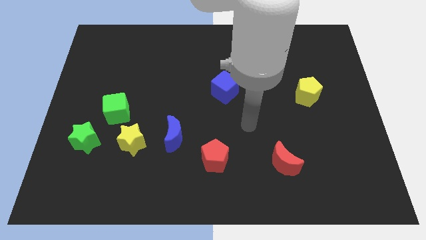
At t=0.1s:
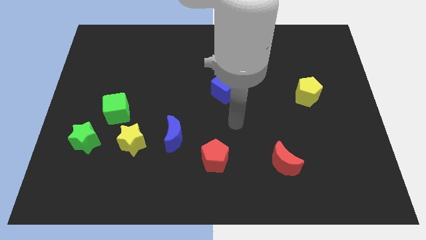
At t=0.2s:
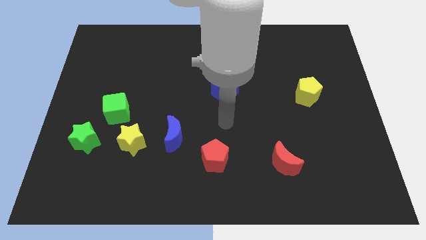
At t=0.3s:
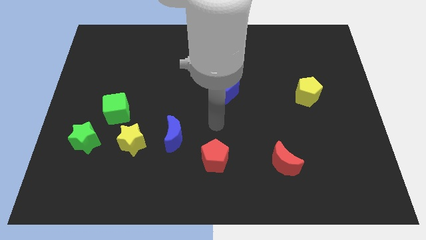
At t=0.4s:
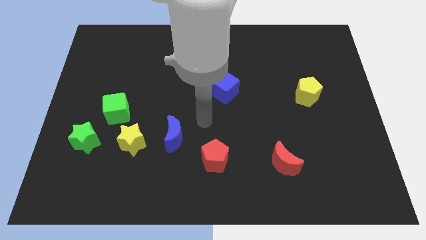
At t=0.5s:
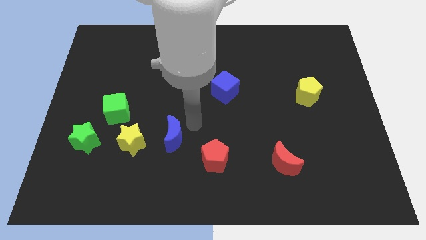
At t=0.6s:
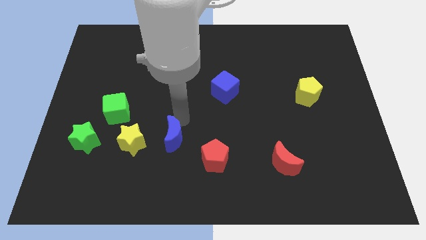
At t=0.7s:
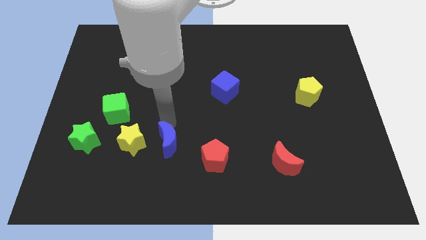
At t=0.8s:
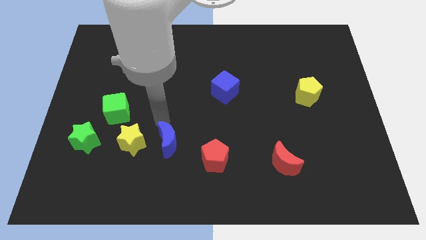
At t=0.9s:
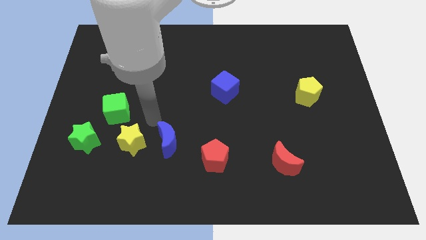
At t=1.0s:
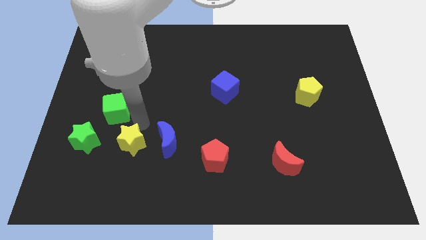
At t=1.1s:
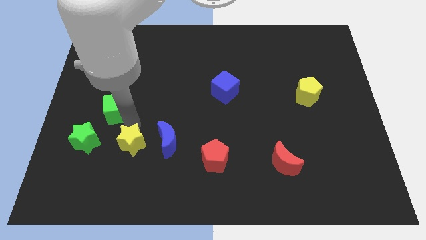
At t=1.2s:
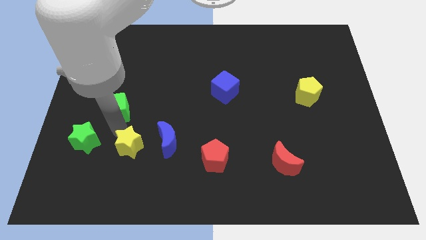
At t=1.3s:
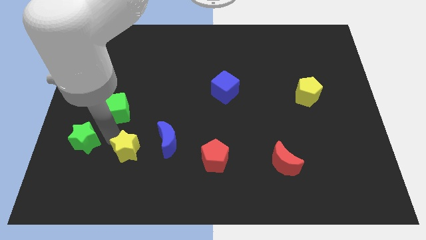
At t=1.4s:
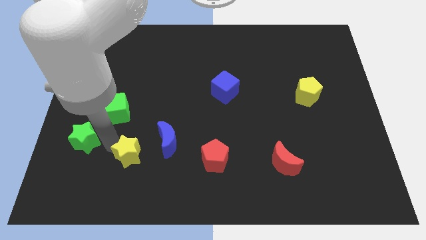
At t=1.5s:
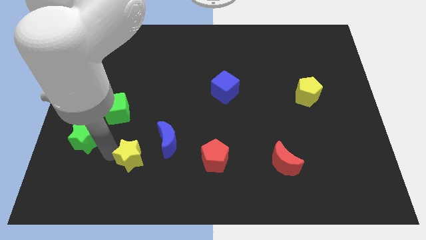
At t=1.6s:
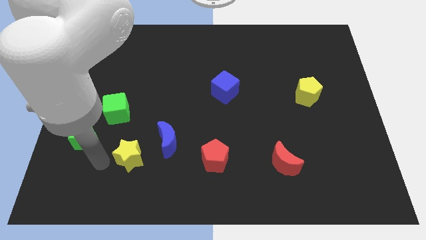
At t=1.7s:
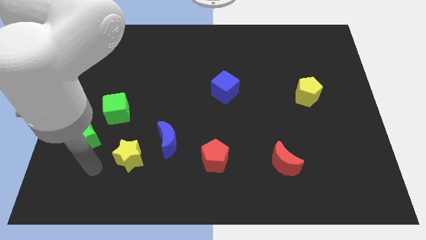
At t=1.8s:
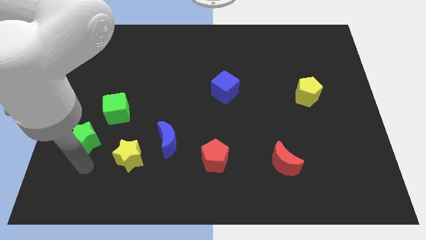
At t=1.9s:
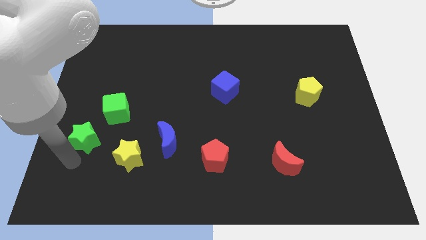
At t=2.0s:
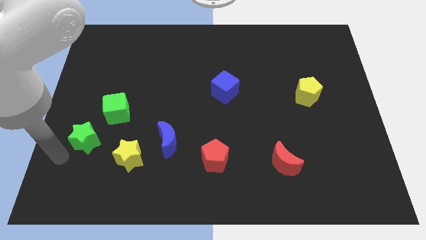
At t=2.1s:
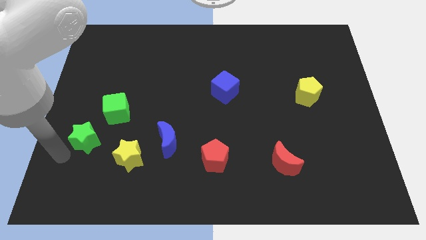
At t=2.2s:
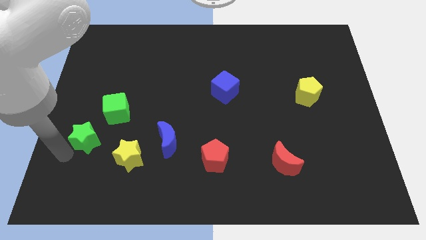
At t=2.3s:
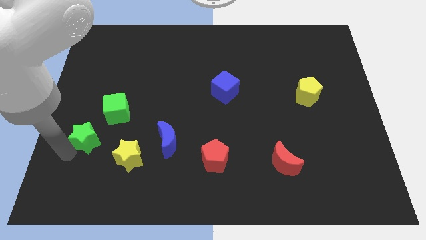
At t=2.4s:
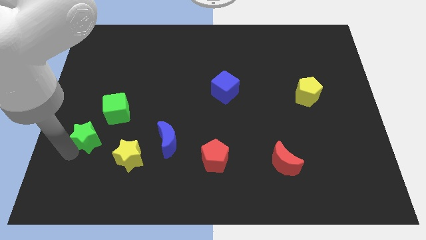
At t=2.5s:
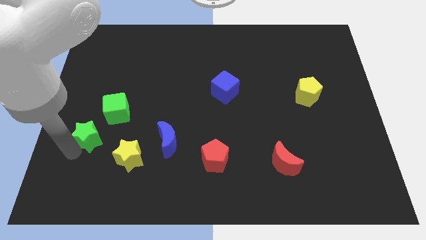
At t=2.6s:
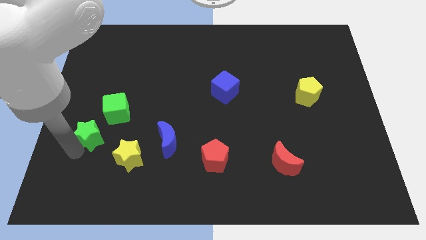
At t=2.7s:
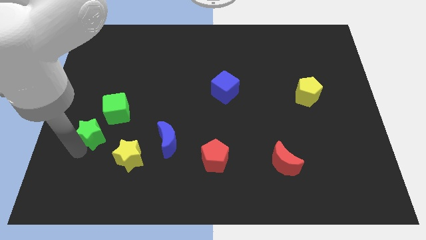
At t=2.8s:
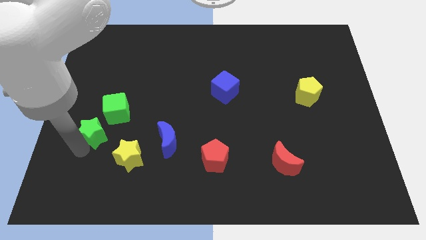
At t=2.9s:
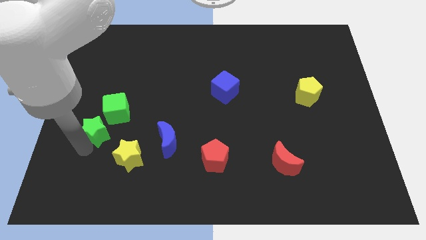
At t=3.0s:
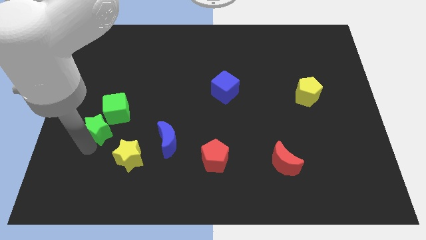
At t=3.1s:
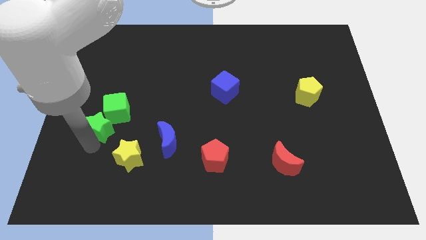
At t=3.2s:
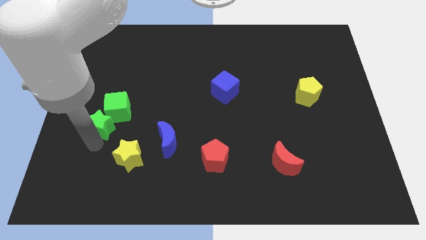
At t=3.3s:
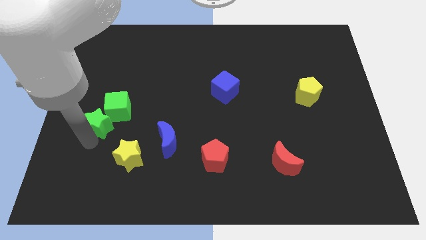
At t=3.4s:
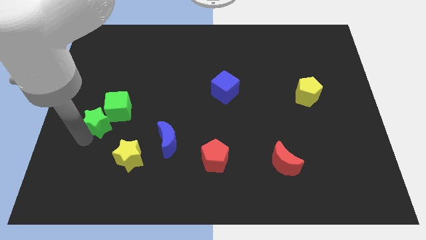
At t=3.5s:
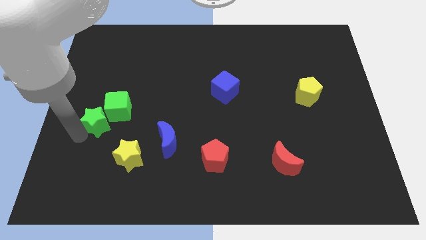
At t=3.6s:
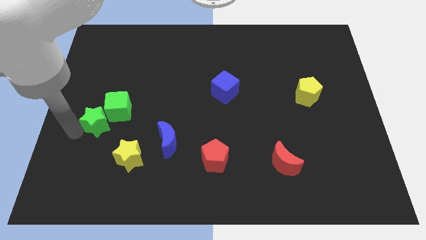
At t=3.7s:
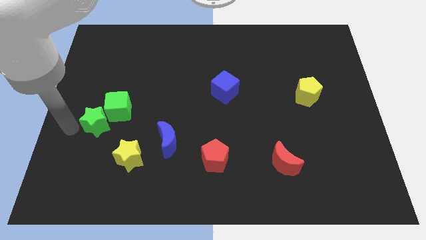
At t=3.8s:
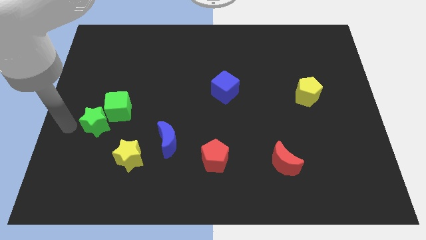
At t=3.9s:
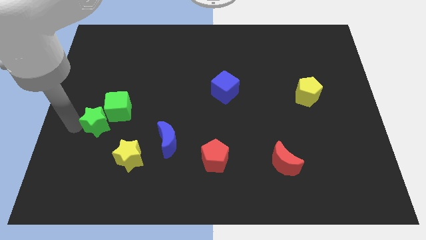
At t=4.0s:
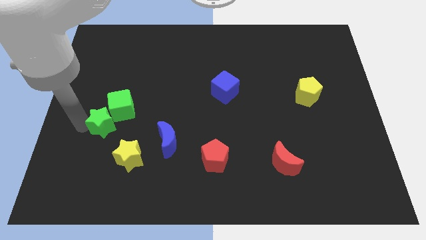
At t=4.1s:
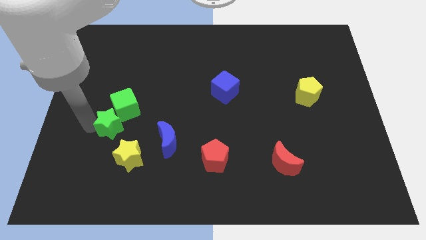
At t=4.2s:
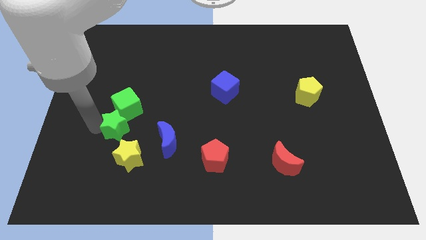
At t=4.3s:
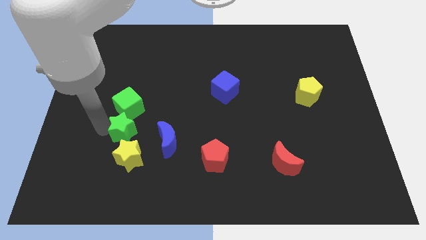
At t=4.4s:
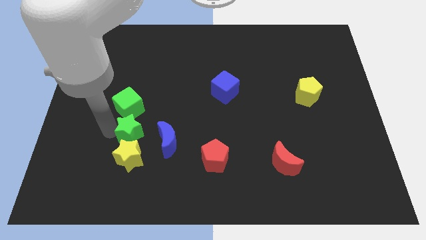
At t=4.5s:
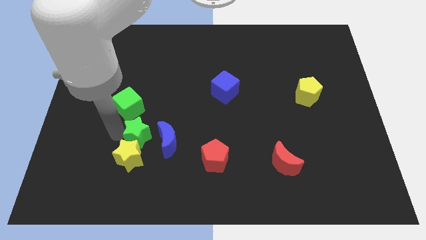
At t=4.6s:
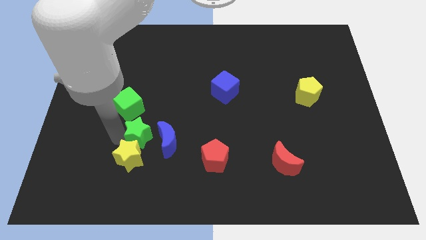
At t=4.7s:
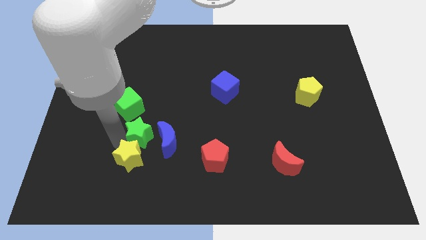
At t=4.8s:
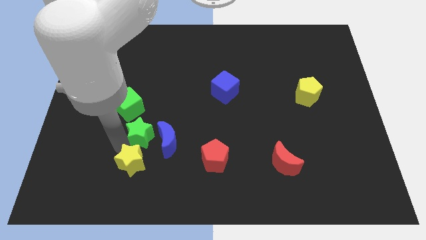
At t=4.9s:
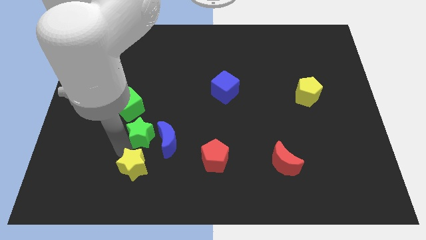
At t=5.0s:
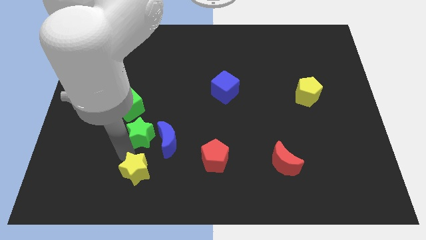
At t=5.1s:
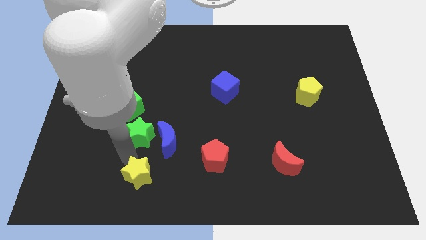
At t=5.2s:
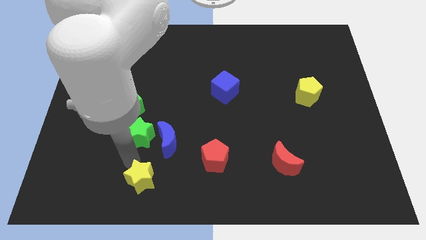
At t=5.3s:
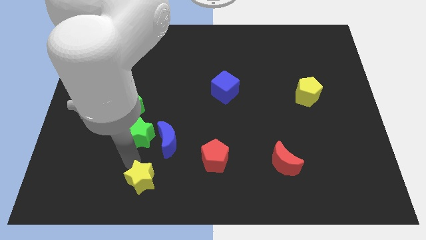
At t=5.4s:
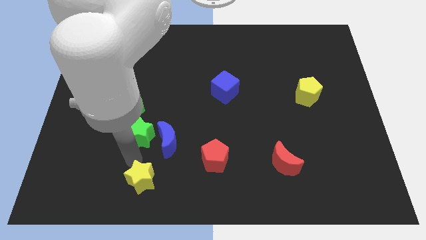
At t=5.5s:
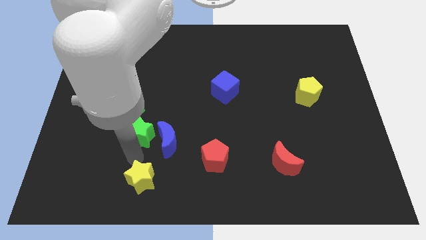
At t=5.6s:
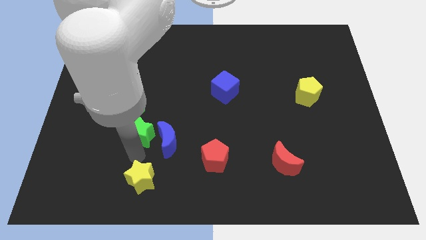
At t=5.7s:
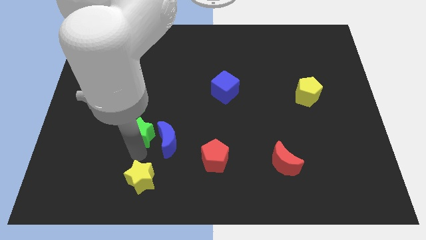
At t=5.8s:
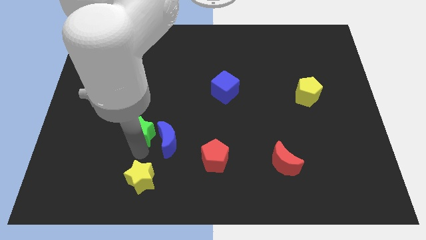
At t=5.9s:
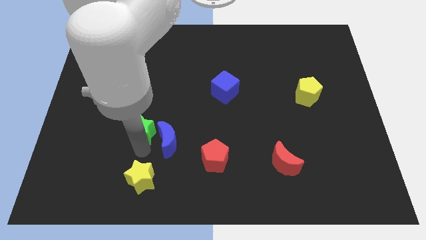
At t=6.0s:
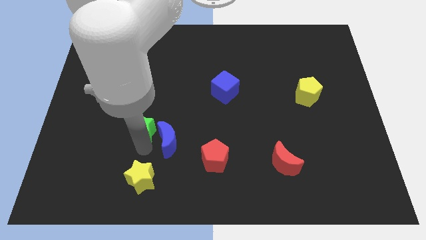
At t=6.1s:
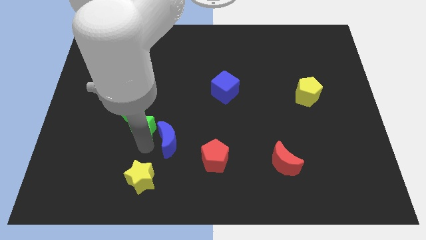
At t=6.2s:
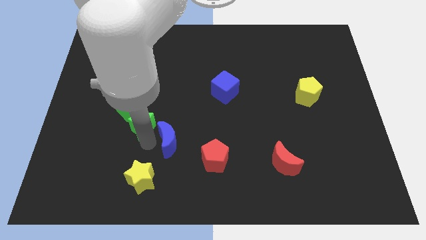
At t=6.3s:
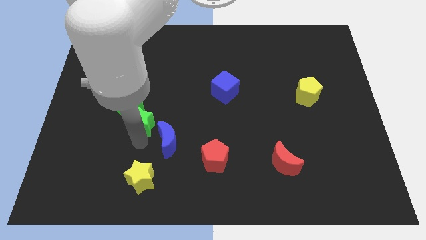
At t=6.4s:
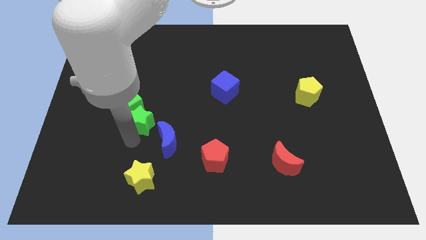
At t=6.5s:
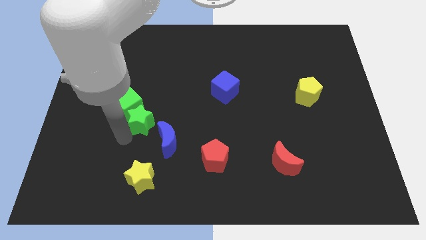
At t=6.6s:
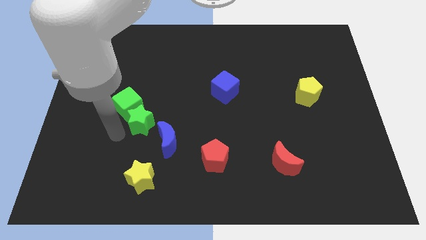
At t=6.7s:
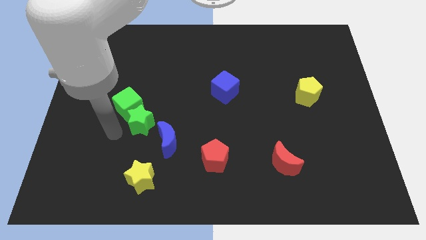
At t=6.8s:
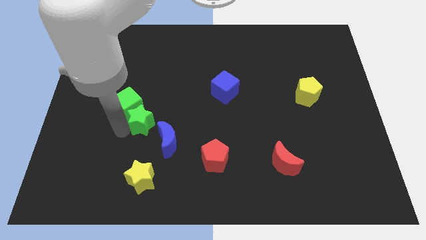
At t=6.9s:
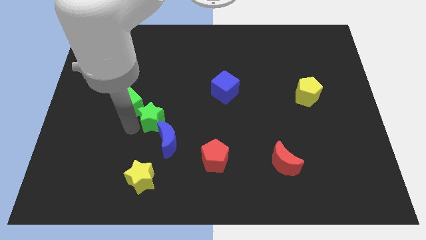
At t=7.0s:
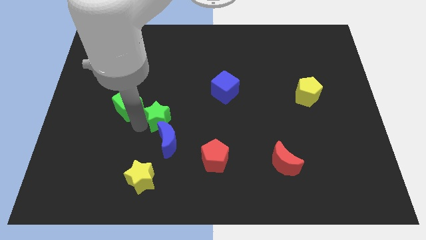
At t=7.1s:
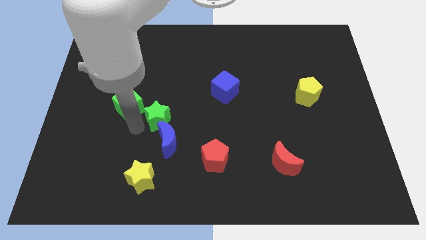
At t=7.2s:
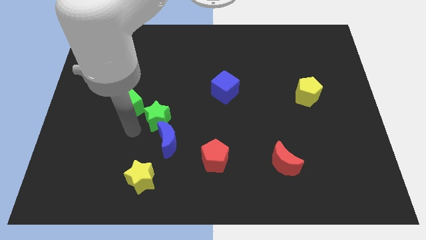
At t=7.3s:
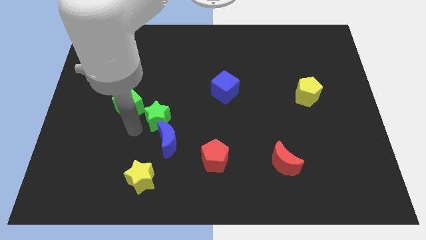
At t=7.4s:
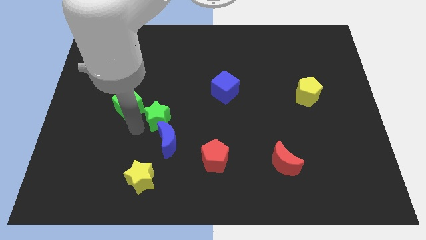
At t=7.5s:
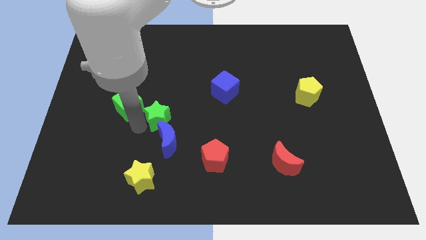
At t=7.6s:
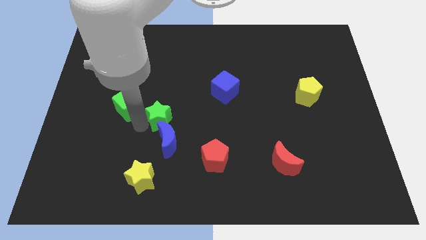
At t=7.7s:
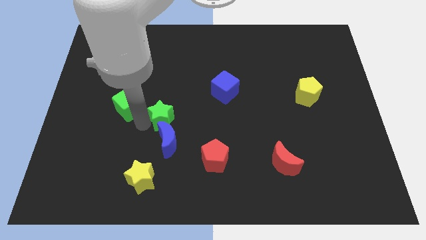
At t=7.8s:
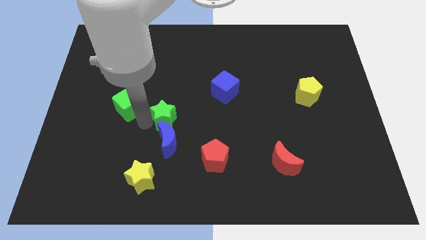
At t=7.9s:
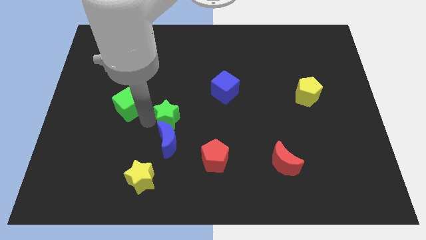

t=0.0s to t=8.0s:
put the green star diagonally up and to the right of the blue moon
